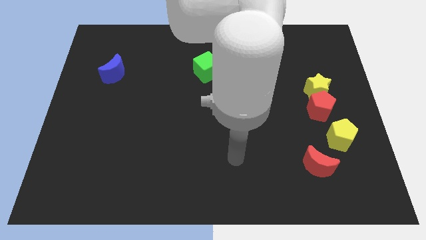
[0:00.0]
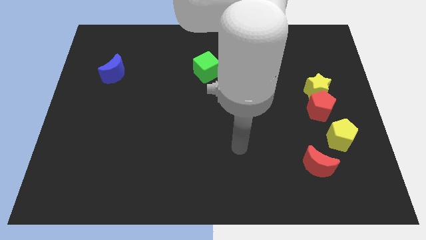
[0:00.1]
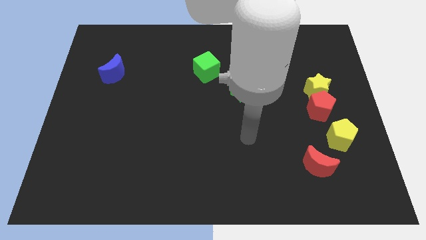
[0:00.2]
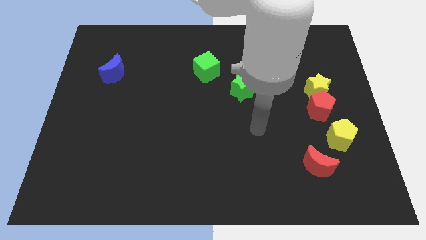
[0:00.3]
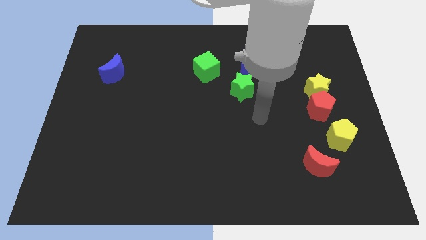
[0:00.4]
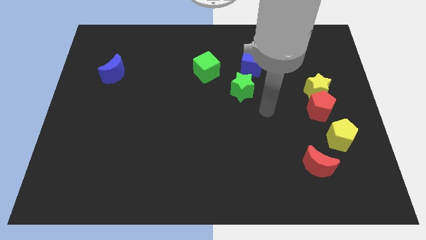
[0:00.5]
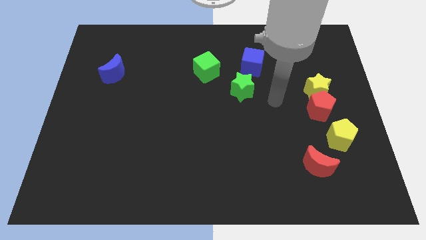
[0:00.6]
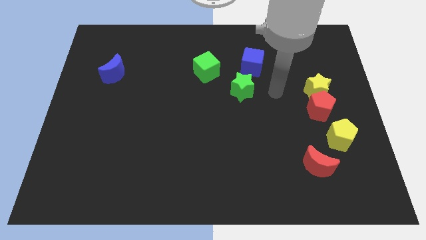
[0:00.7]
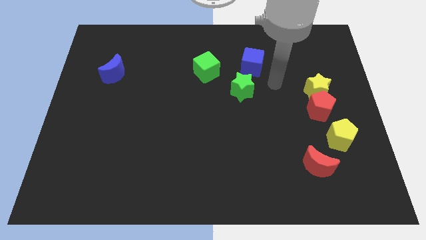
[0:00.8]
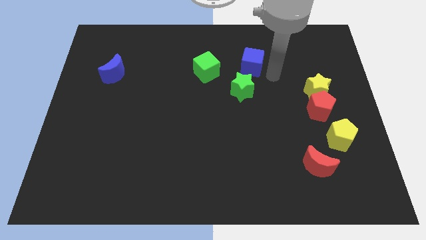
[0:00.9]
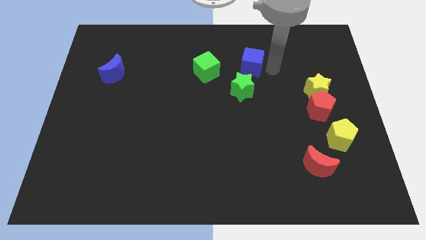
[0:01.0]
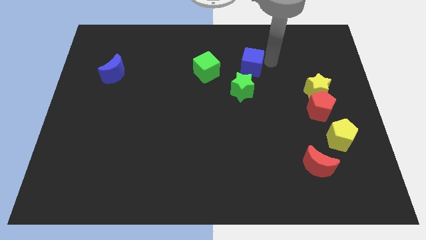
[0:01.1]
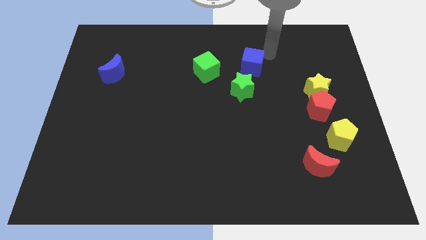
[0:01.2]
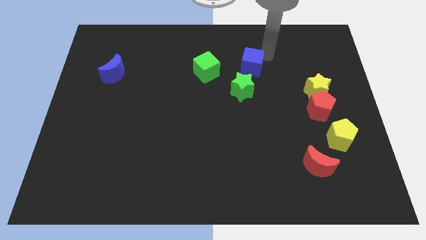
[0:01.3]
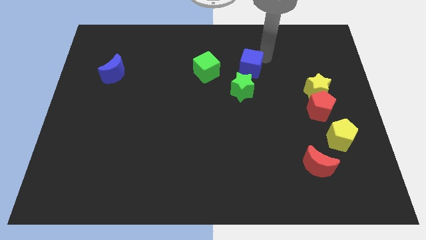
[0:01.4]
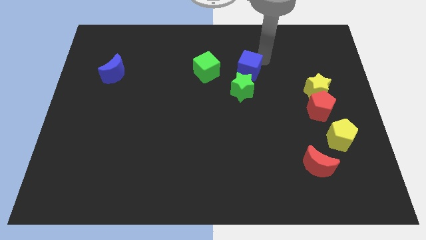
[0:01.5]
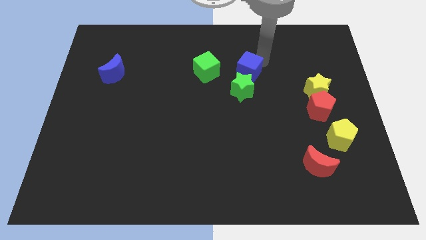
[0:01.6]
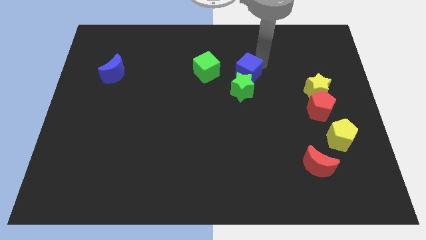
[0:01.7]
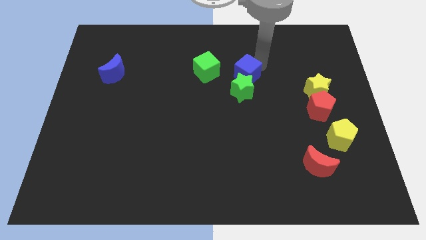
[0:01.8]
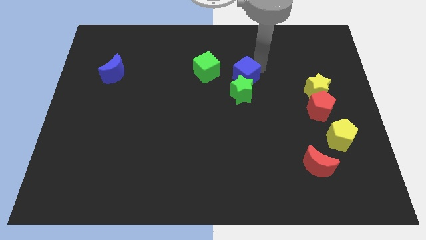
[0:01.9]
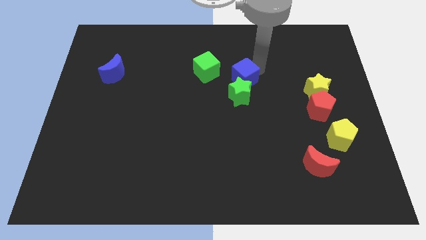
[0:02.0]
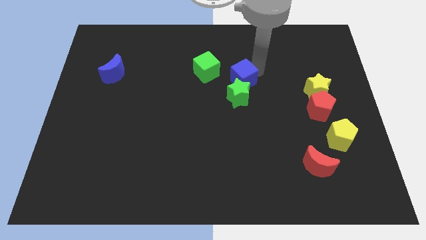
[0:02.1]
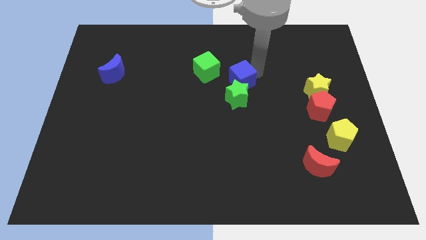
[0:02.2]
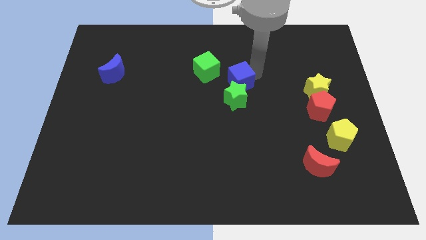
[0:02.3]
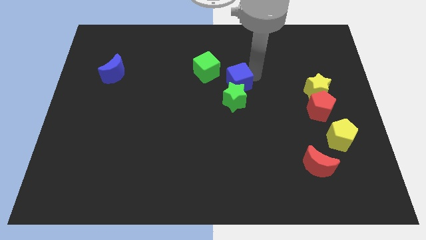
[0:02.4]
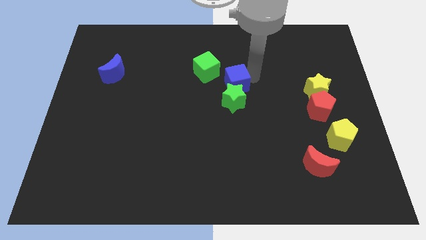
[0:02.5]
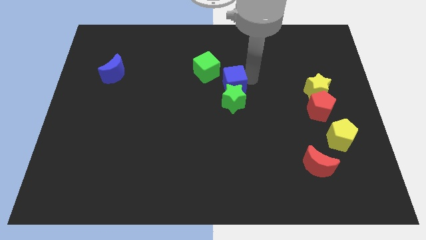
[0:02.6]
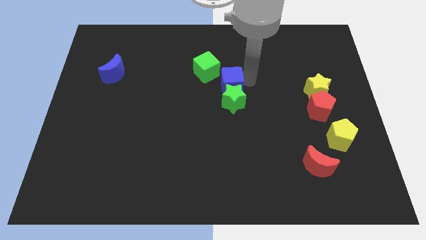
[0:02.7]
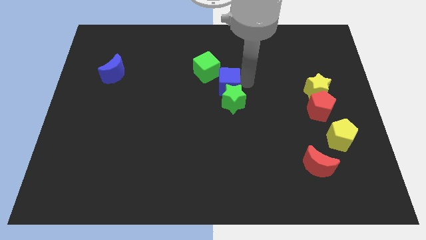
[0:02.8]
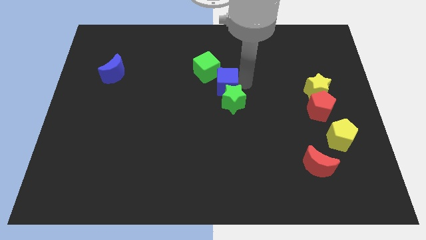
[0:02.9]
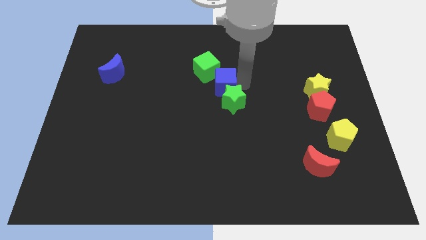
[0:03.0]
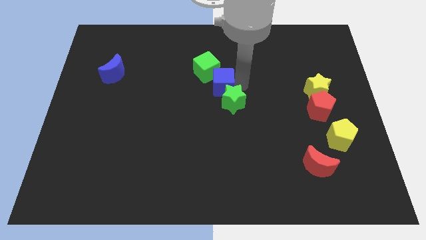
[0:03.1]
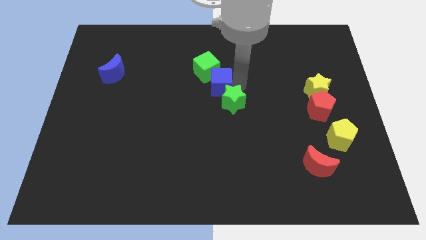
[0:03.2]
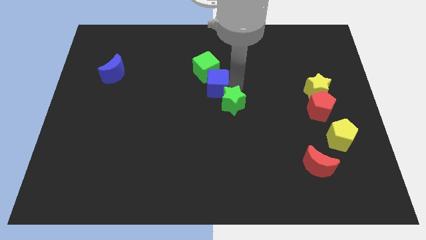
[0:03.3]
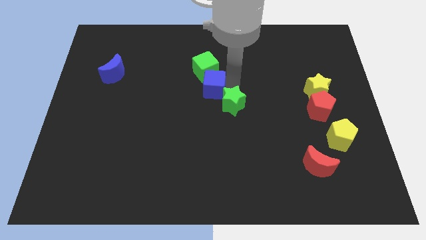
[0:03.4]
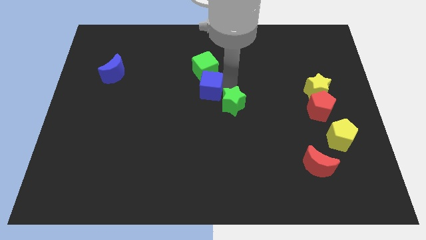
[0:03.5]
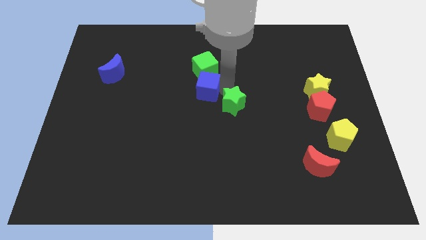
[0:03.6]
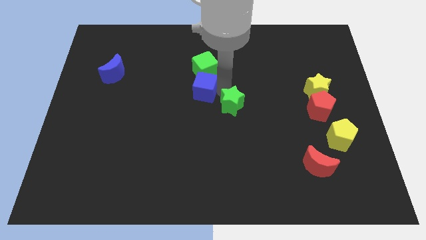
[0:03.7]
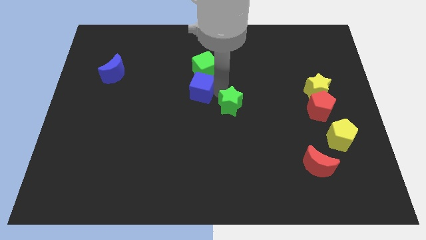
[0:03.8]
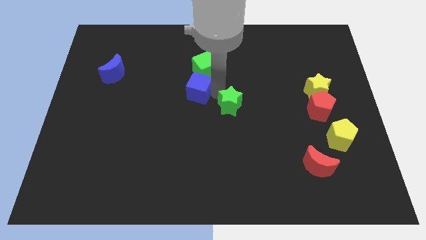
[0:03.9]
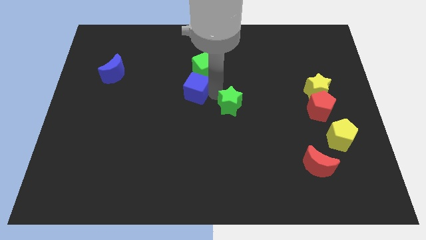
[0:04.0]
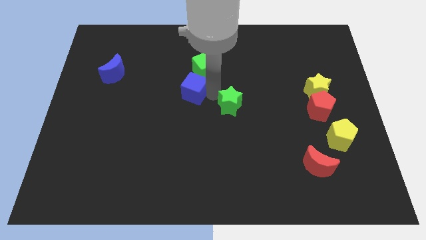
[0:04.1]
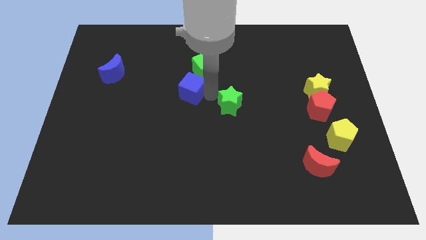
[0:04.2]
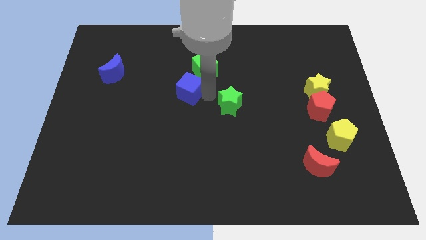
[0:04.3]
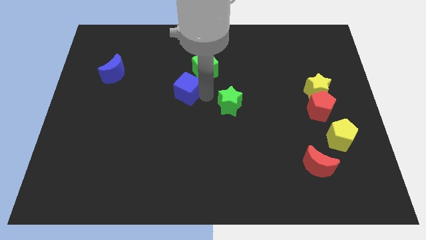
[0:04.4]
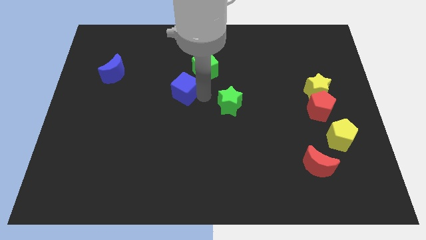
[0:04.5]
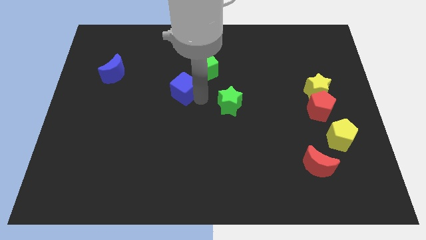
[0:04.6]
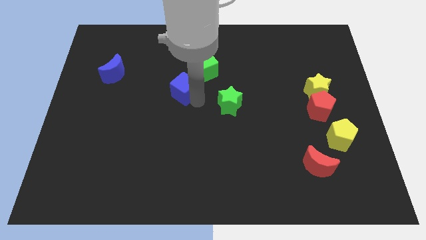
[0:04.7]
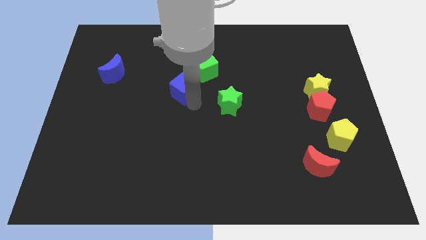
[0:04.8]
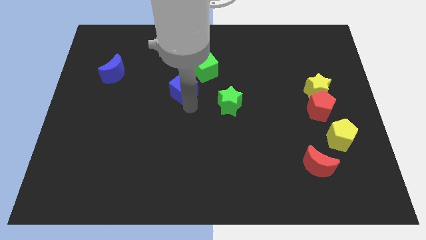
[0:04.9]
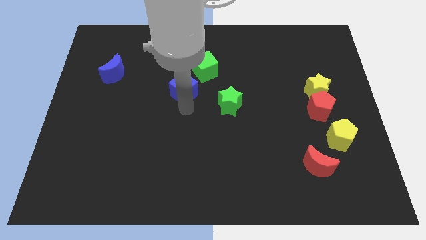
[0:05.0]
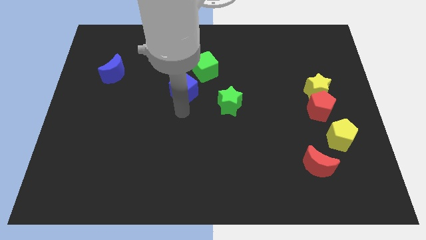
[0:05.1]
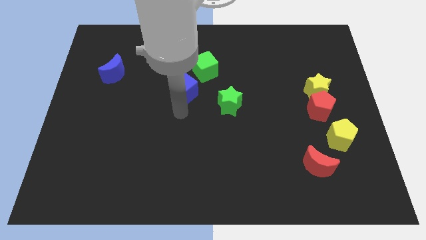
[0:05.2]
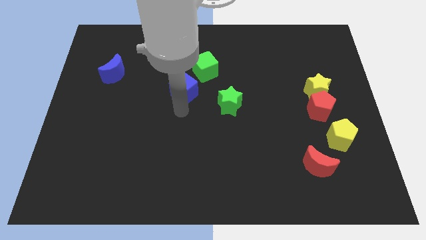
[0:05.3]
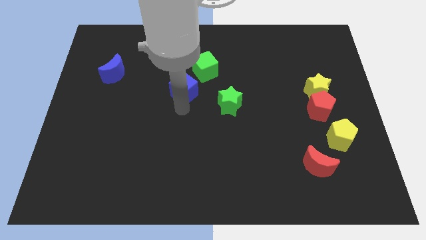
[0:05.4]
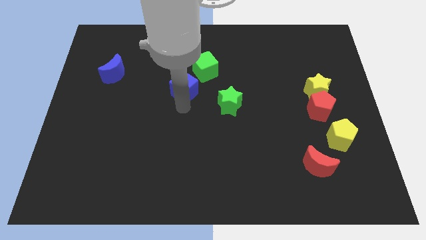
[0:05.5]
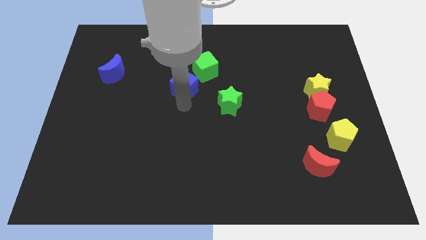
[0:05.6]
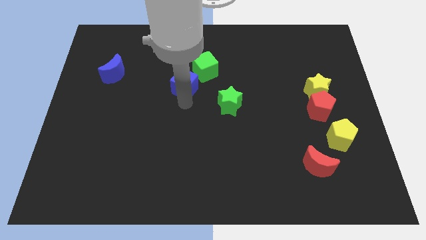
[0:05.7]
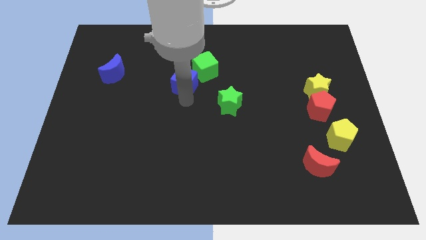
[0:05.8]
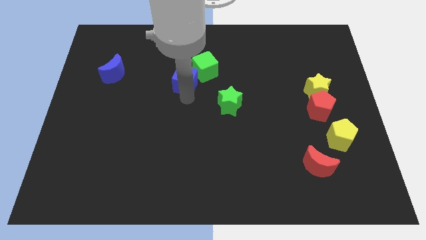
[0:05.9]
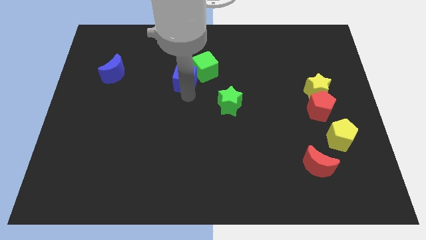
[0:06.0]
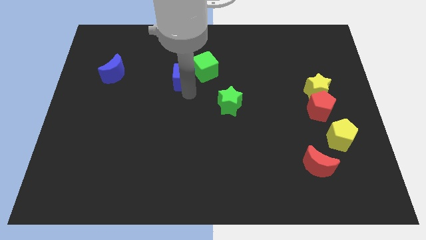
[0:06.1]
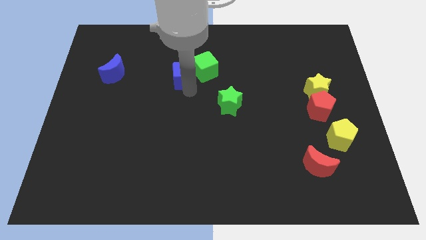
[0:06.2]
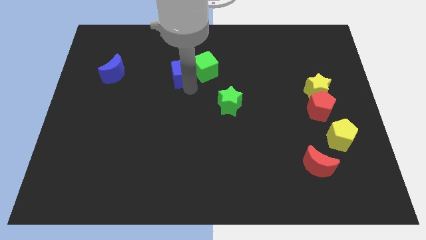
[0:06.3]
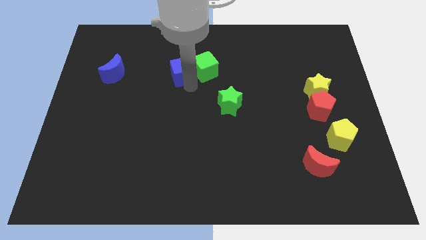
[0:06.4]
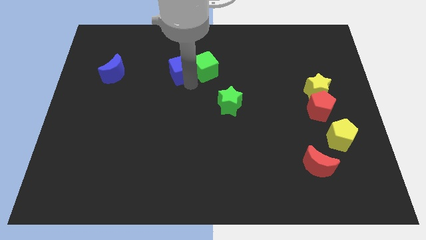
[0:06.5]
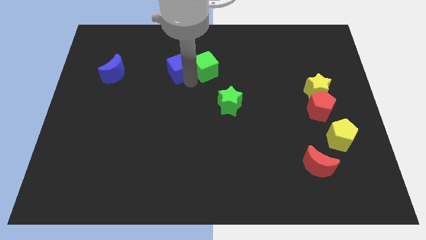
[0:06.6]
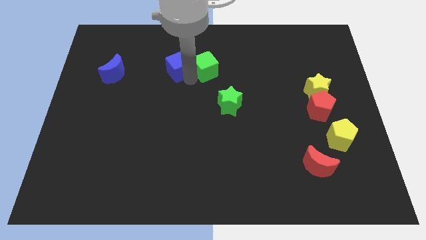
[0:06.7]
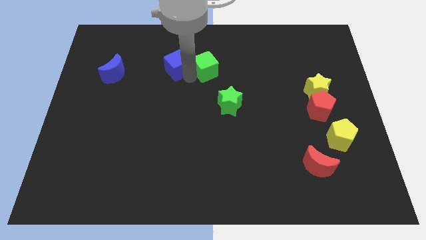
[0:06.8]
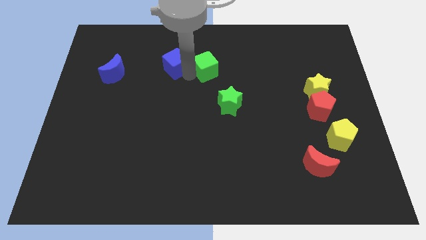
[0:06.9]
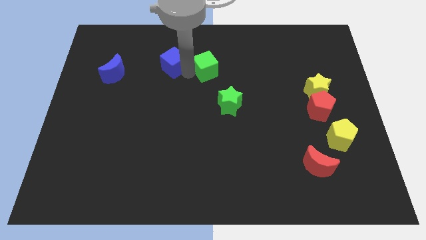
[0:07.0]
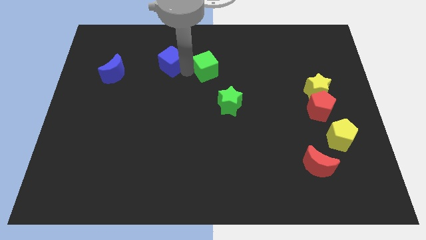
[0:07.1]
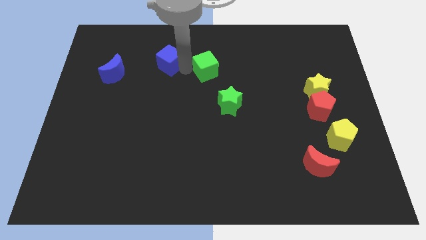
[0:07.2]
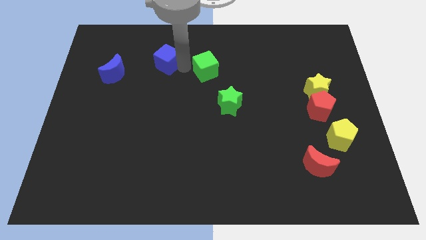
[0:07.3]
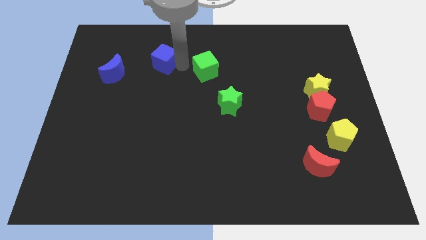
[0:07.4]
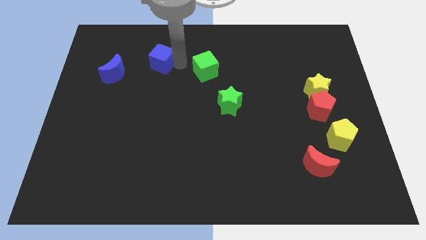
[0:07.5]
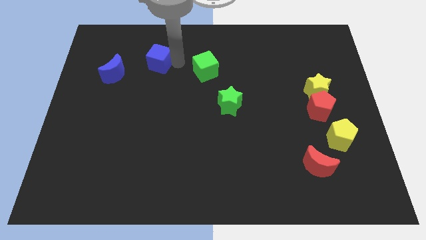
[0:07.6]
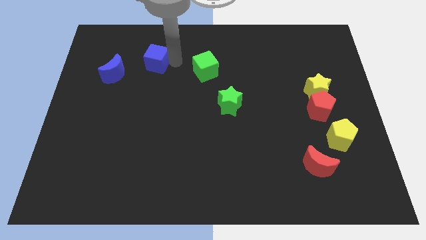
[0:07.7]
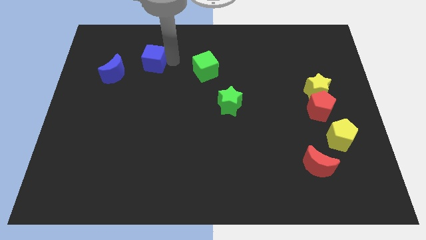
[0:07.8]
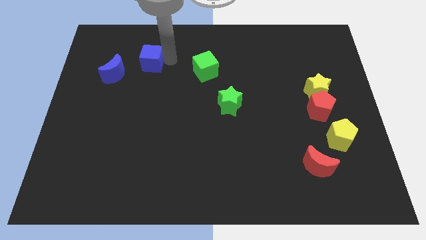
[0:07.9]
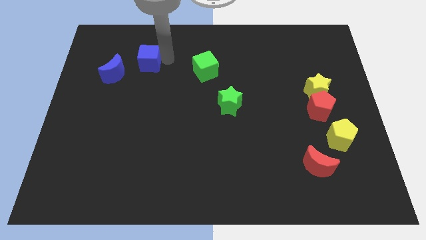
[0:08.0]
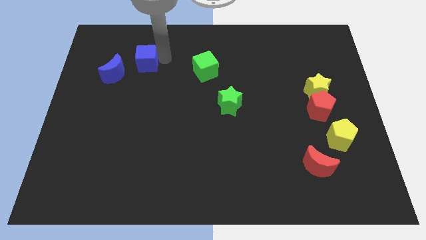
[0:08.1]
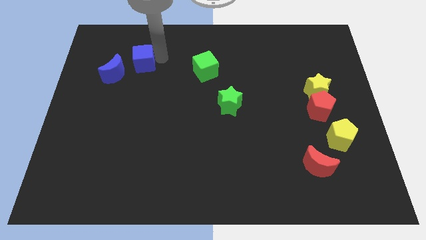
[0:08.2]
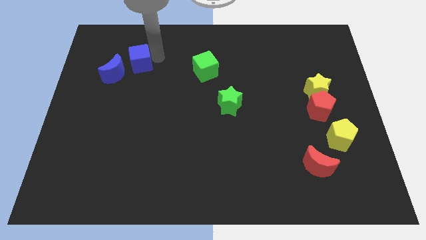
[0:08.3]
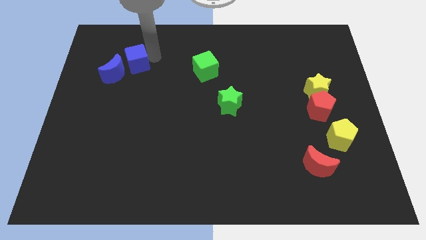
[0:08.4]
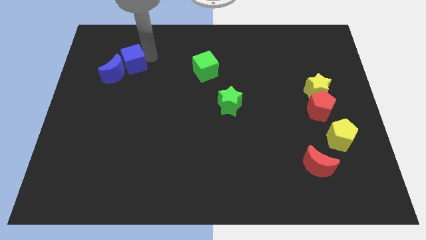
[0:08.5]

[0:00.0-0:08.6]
slide the blue cube towards the blue moon
